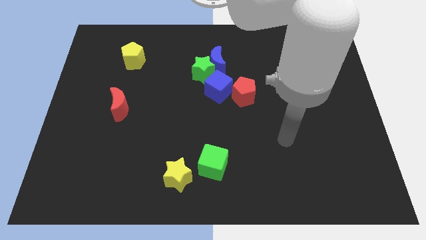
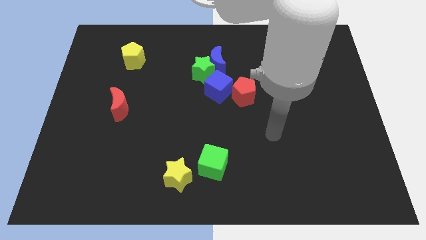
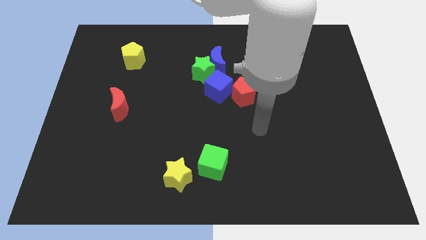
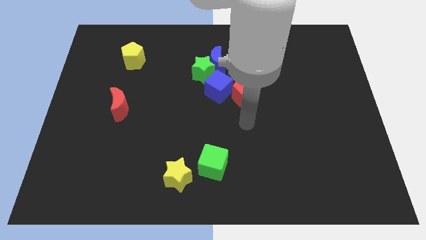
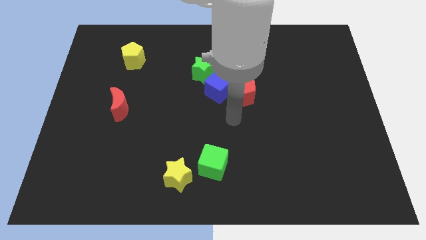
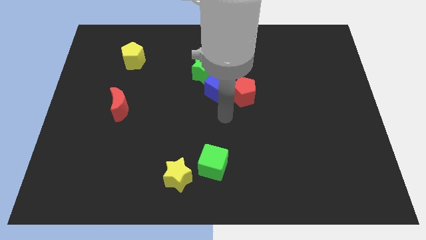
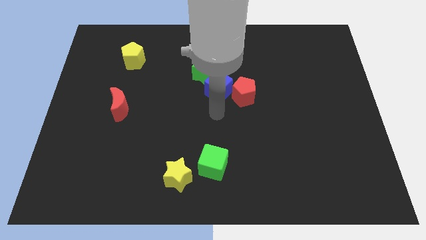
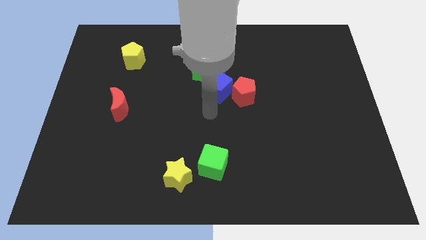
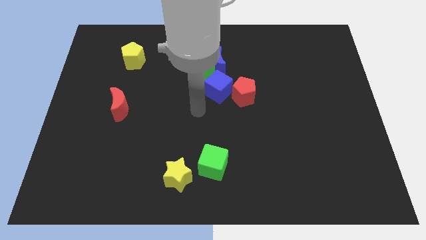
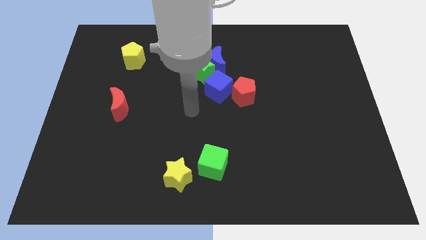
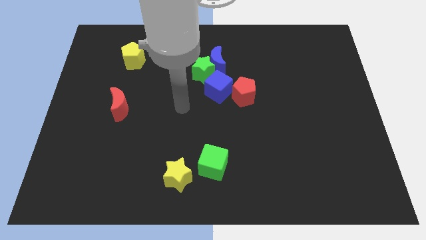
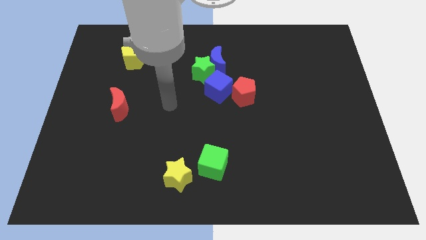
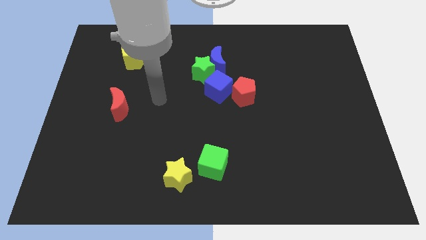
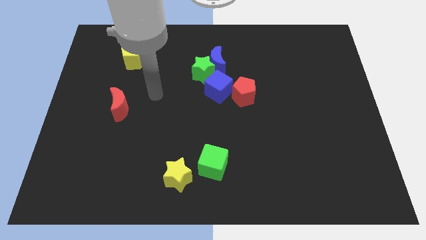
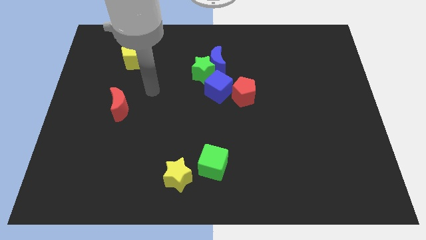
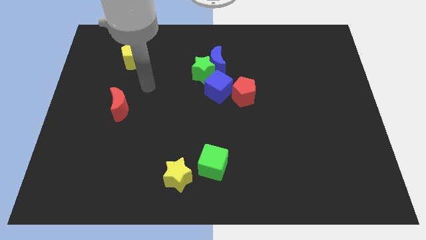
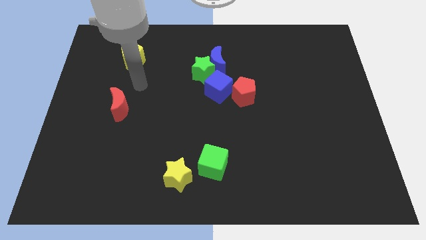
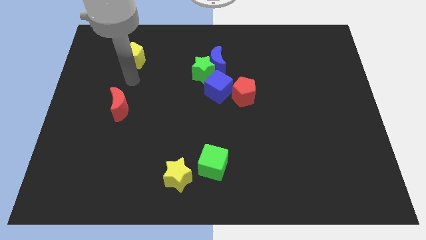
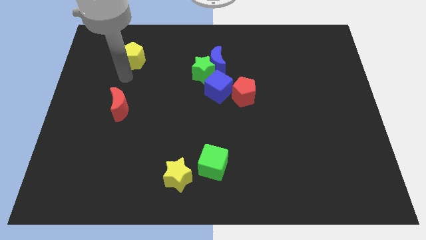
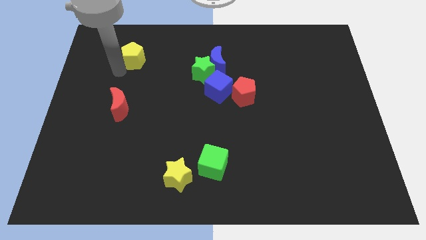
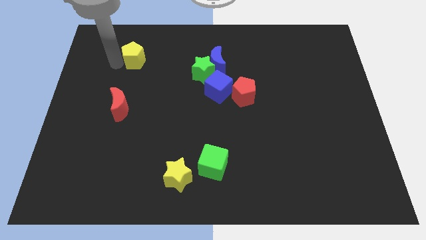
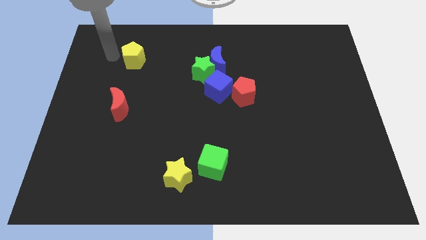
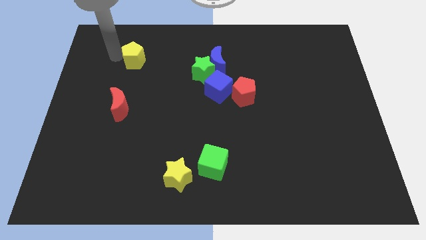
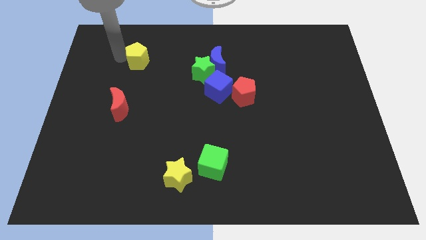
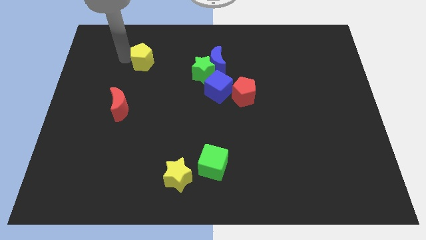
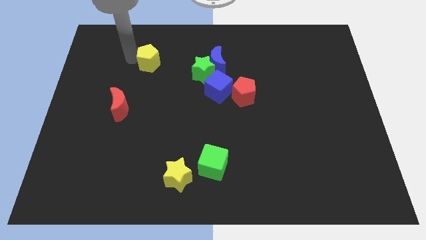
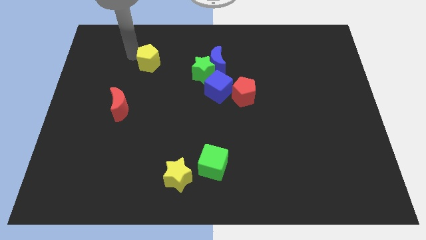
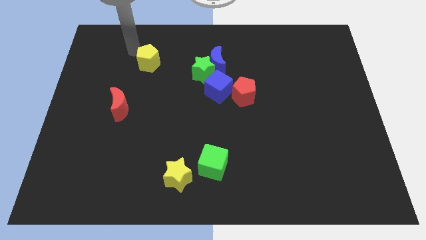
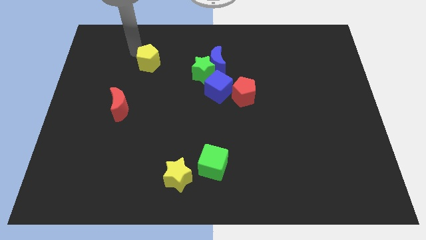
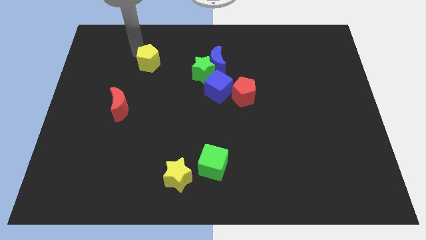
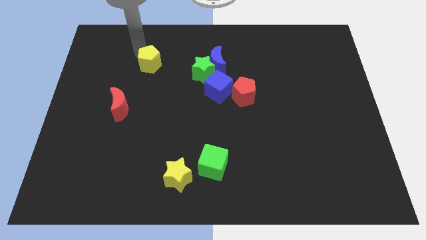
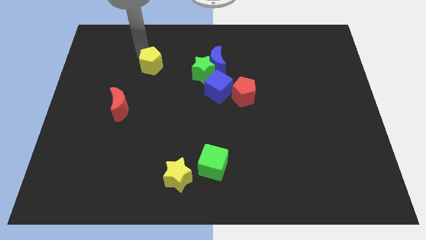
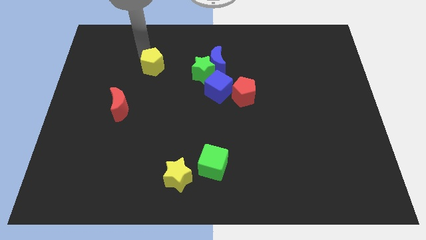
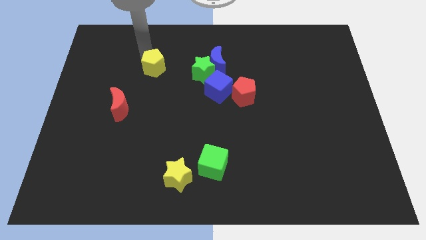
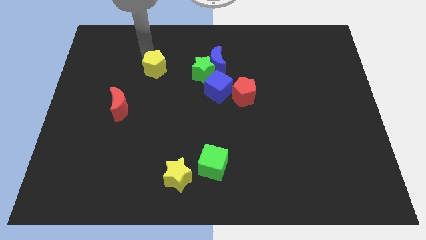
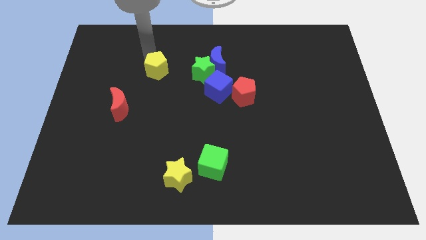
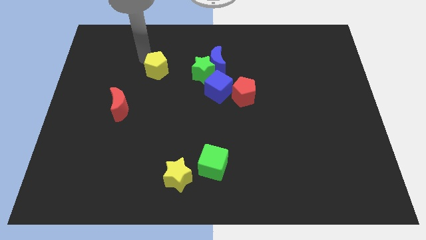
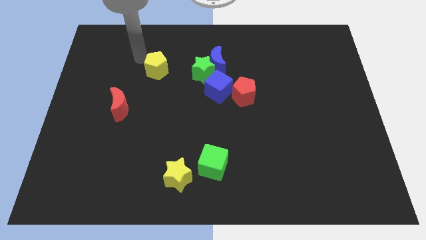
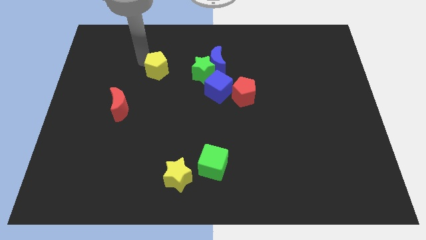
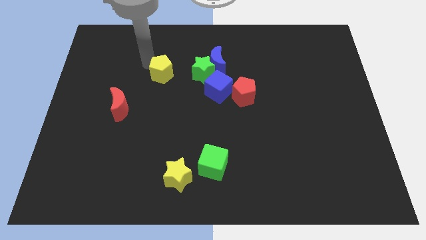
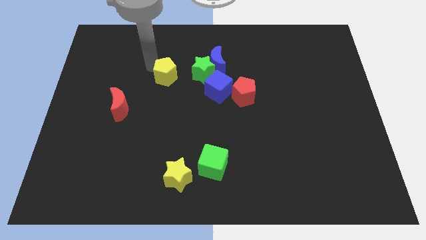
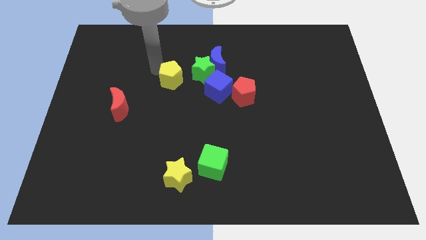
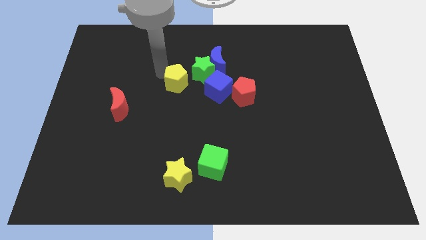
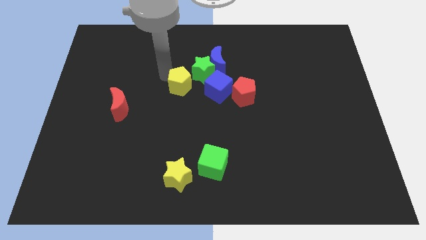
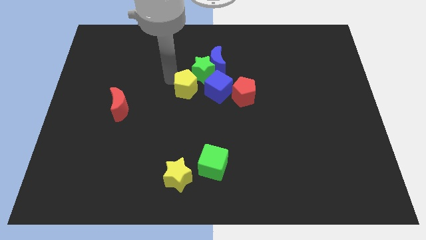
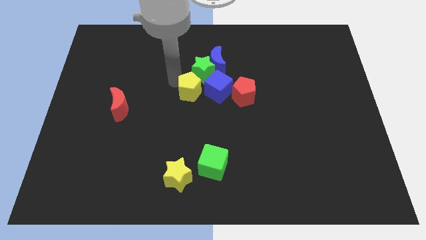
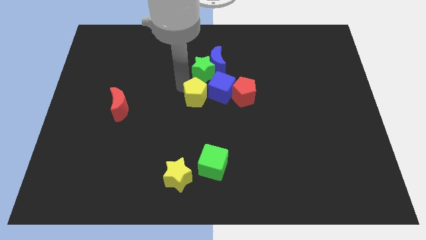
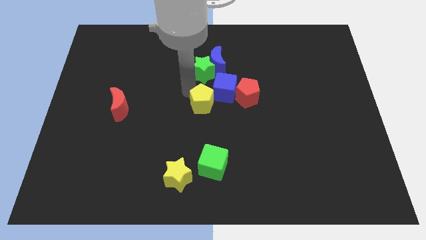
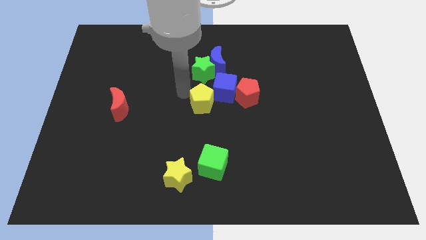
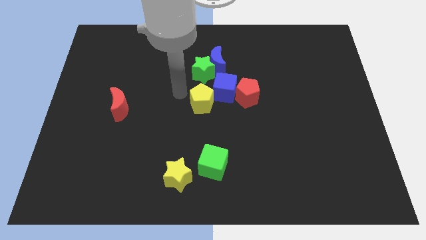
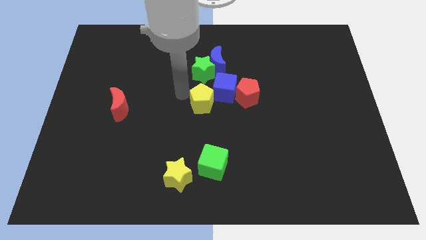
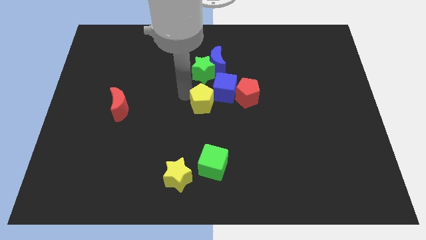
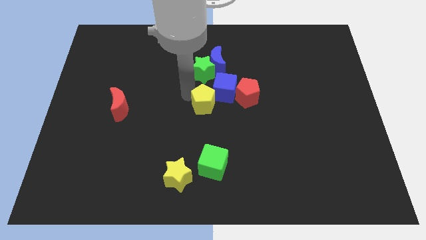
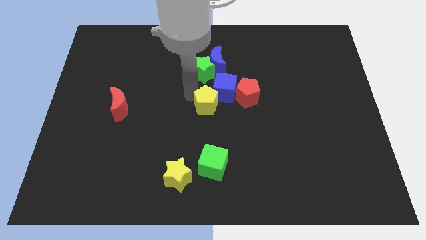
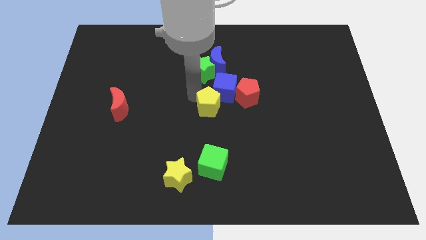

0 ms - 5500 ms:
push the yellow pentagon diagonally down and to the left of the red pentagon

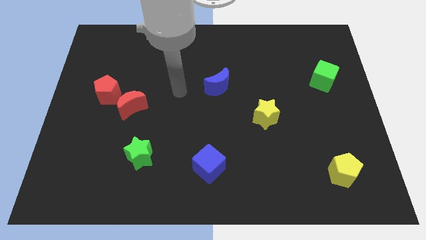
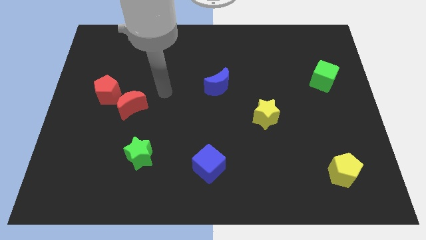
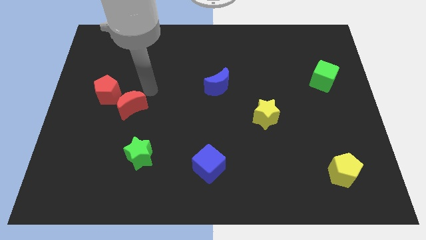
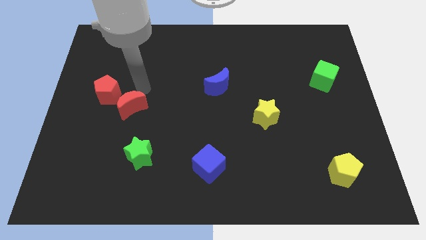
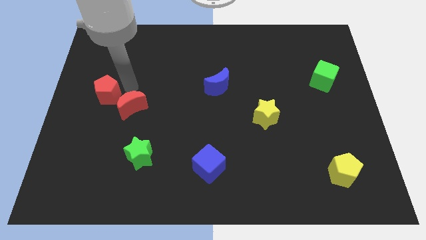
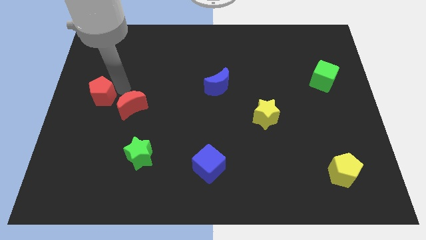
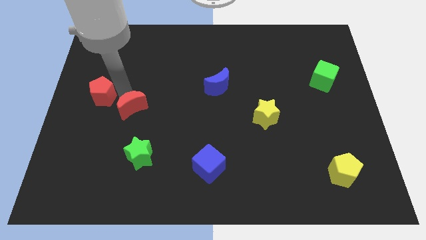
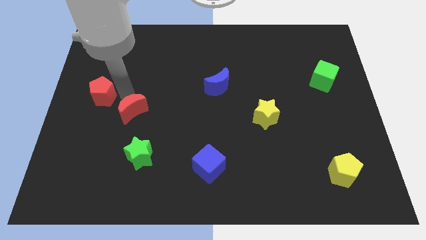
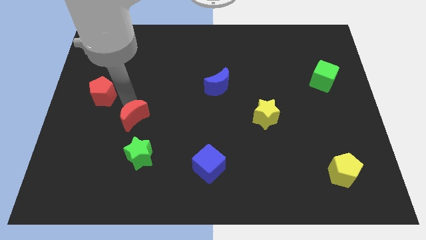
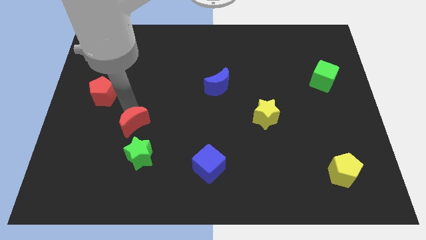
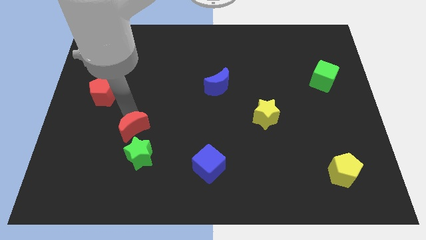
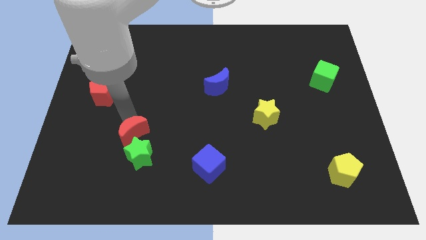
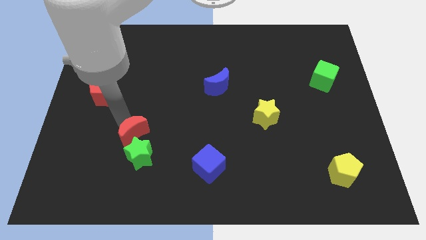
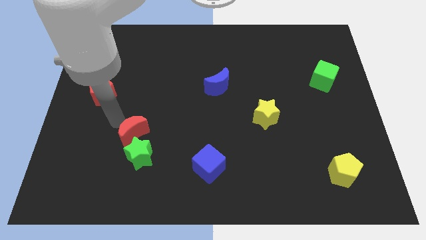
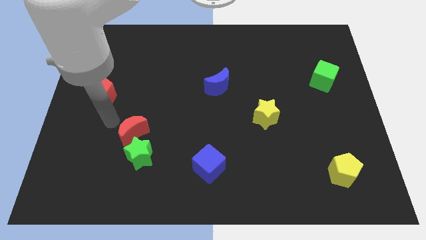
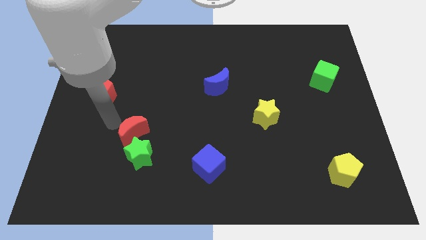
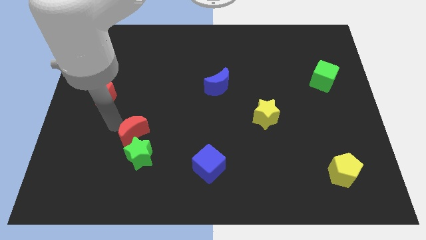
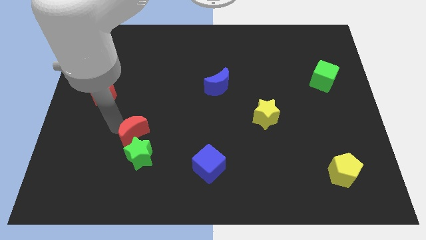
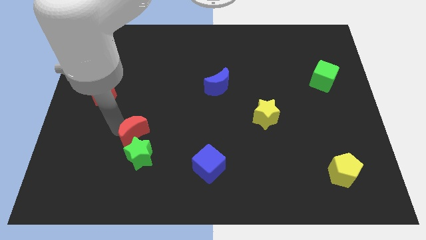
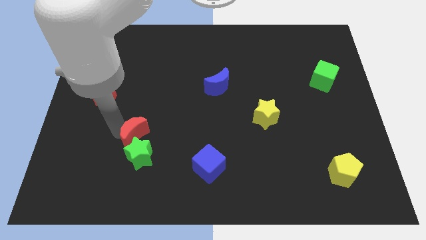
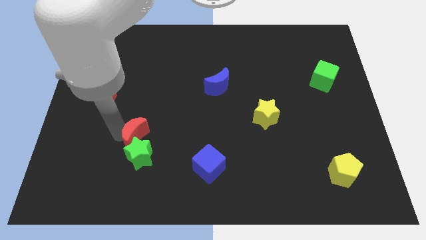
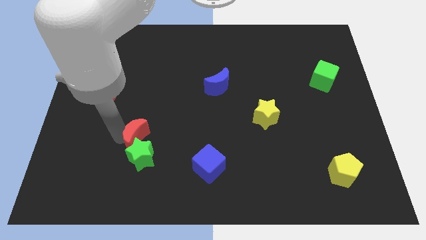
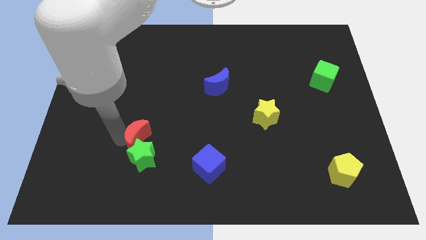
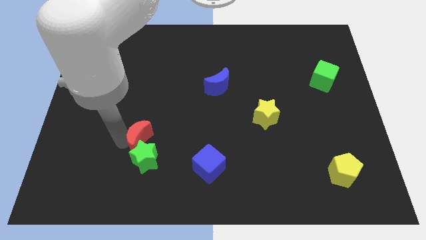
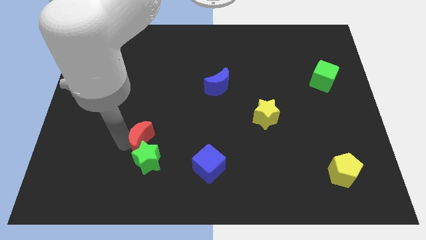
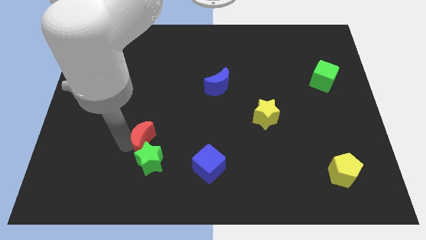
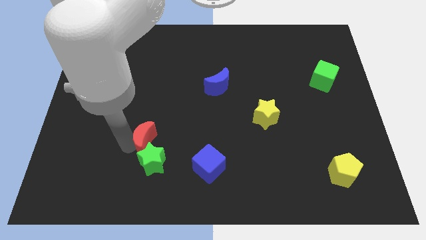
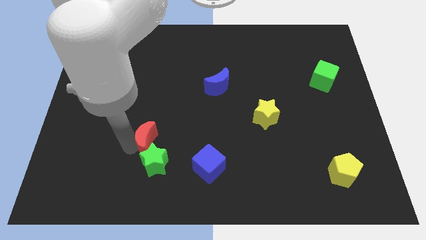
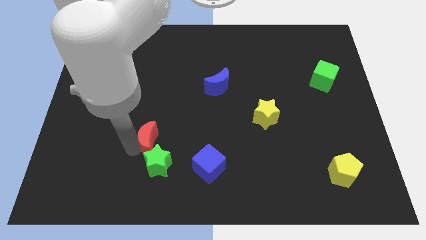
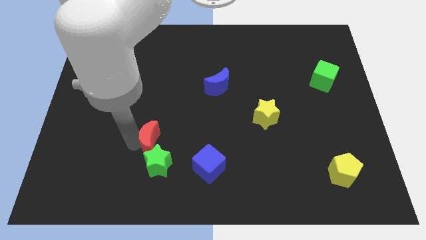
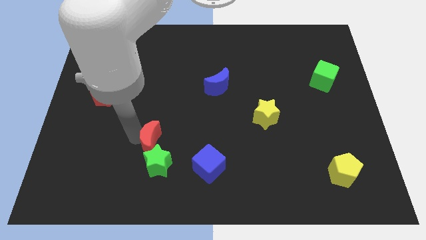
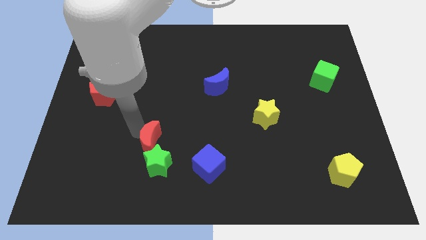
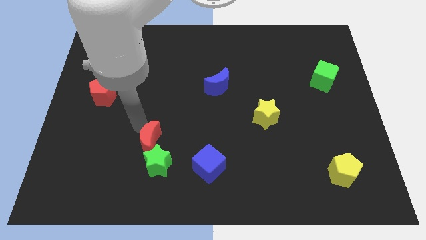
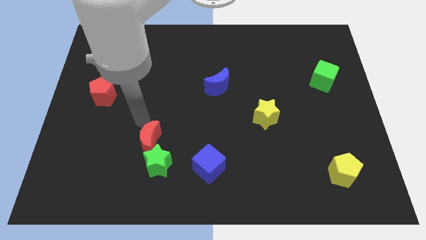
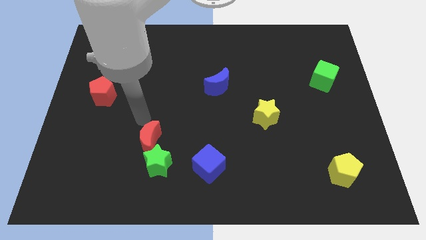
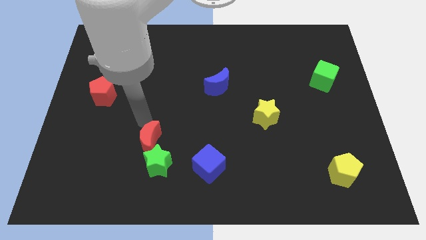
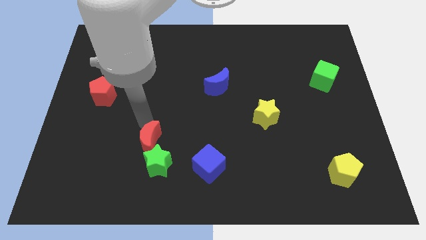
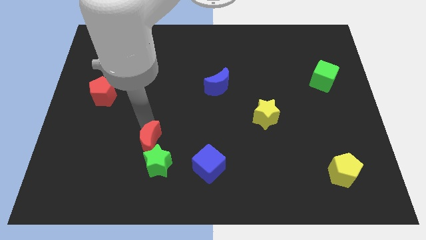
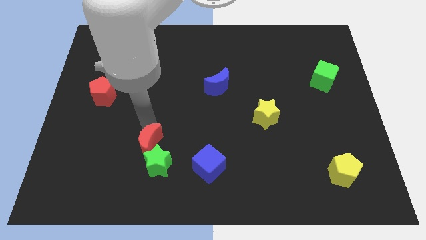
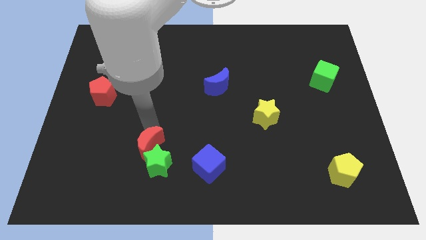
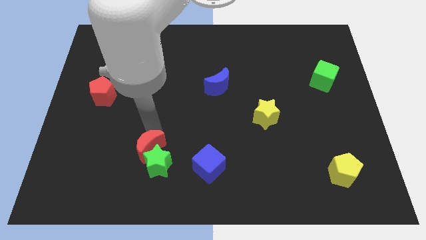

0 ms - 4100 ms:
put the red moon just left of the blue cube
